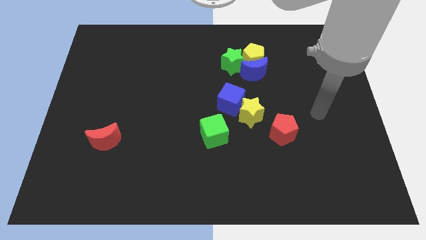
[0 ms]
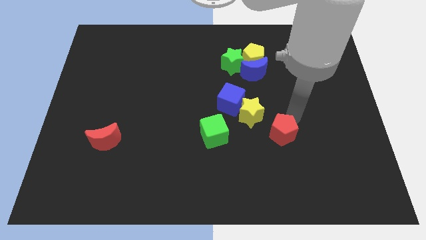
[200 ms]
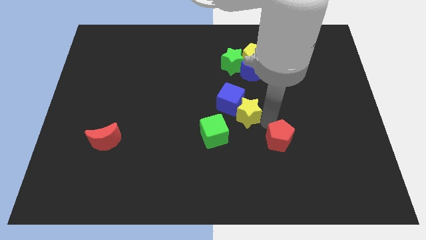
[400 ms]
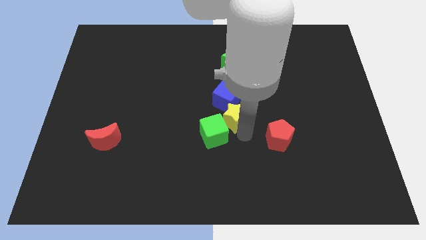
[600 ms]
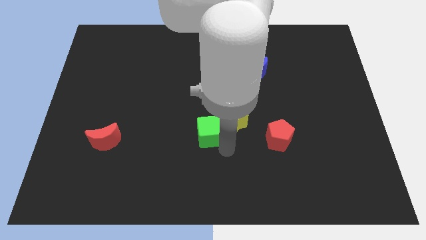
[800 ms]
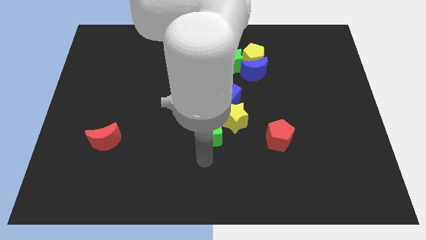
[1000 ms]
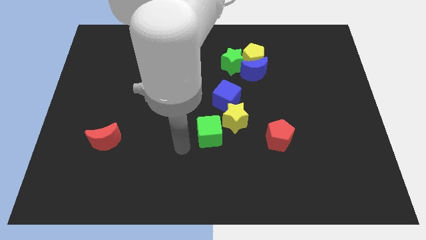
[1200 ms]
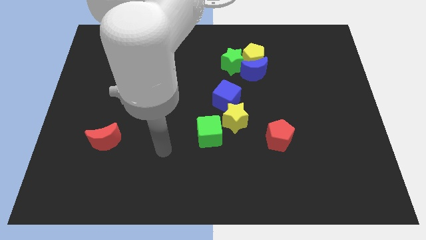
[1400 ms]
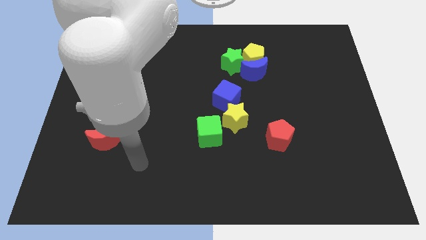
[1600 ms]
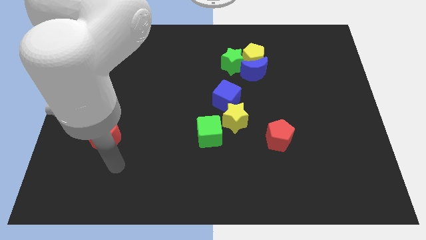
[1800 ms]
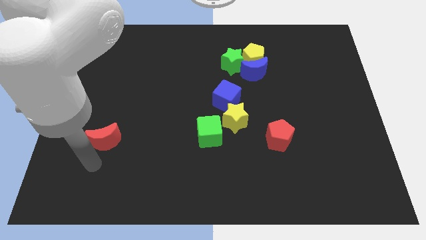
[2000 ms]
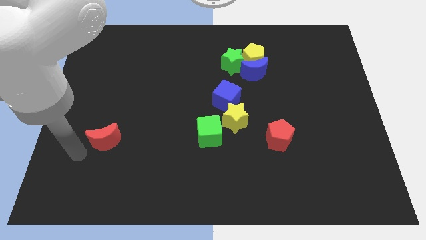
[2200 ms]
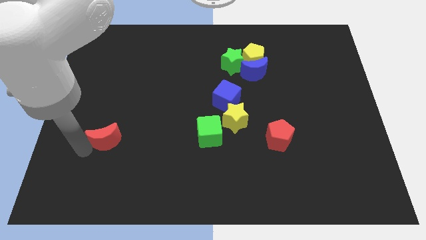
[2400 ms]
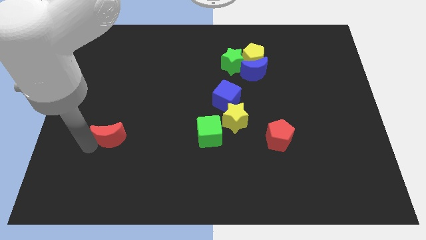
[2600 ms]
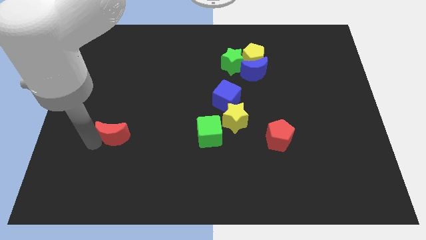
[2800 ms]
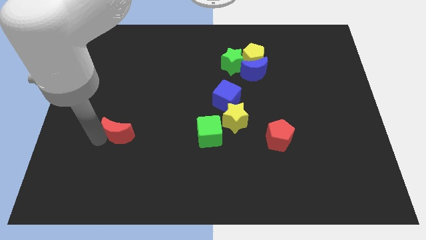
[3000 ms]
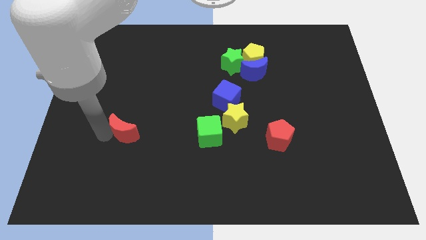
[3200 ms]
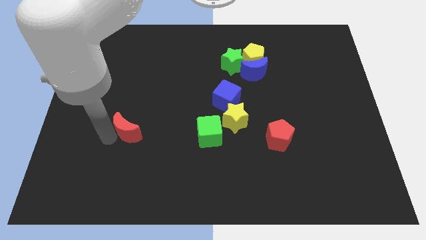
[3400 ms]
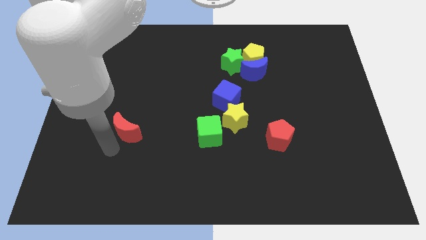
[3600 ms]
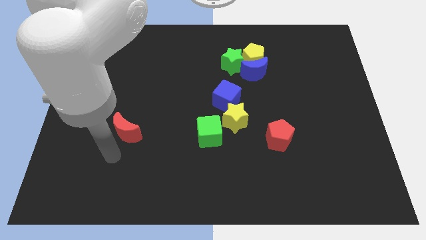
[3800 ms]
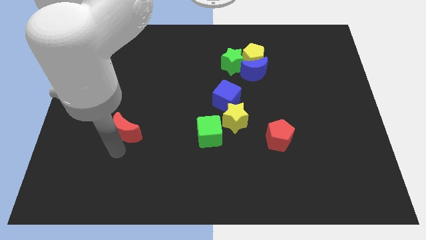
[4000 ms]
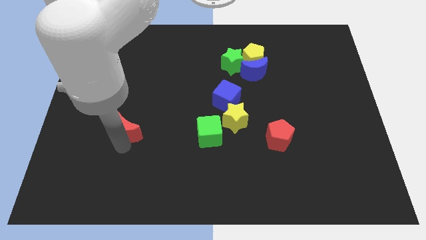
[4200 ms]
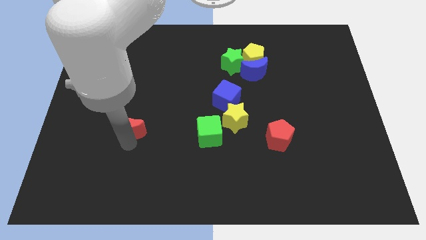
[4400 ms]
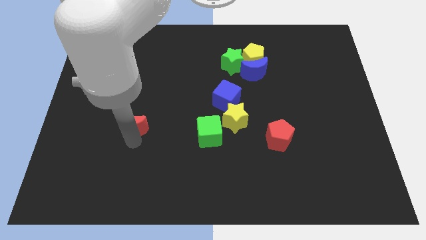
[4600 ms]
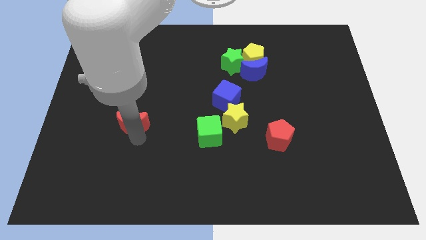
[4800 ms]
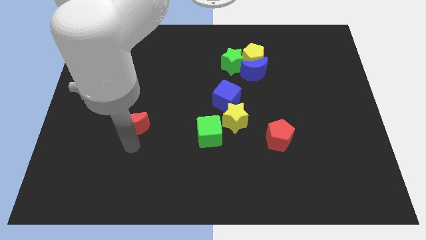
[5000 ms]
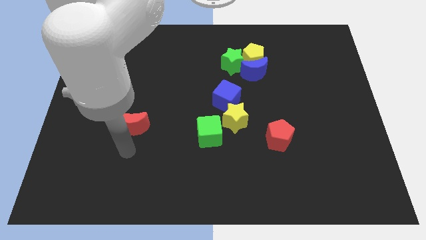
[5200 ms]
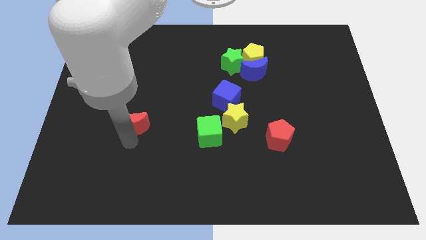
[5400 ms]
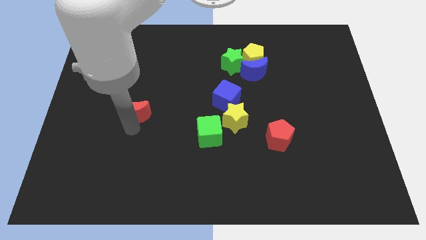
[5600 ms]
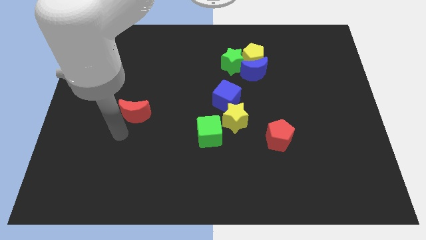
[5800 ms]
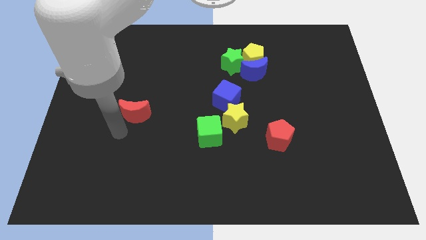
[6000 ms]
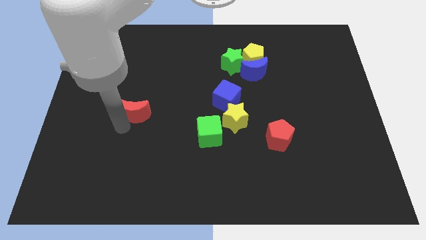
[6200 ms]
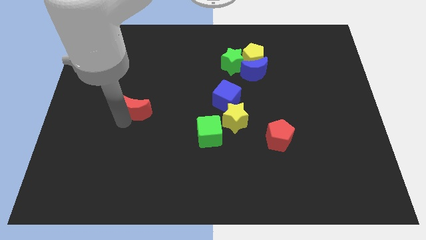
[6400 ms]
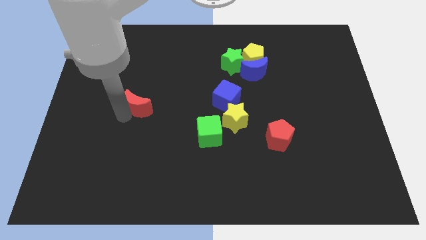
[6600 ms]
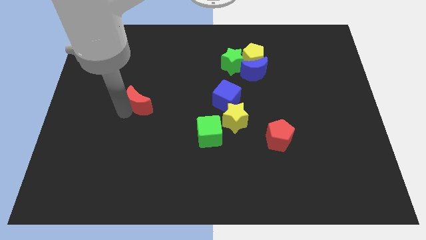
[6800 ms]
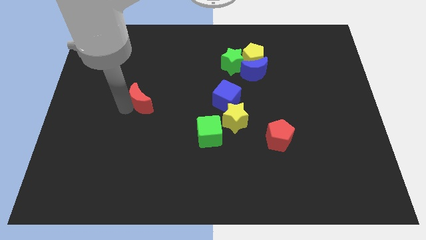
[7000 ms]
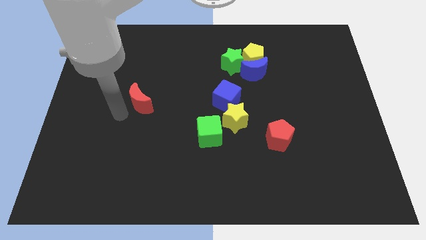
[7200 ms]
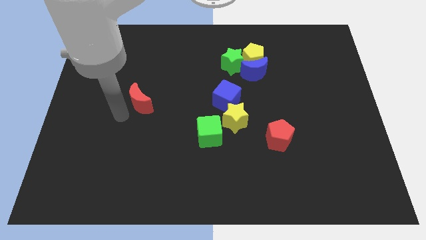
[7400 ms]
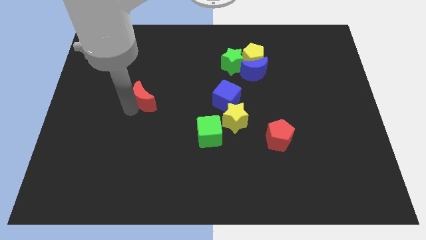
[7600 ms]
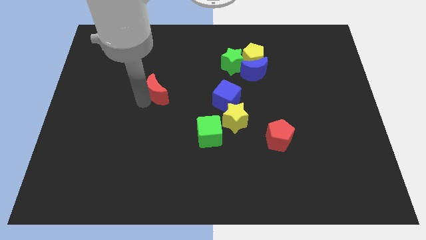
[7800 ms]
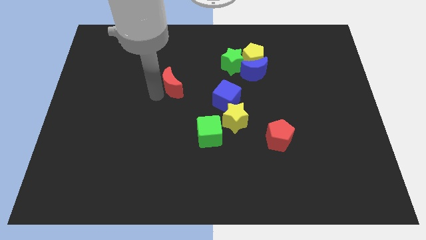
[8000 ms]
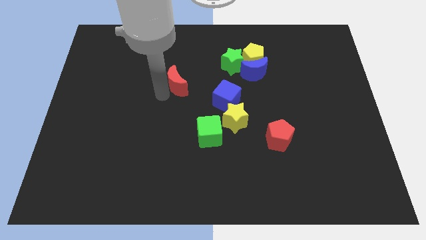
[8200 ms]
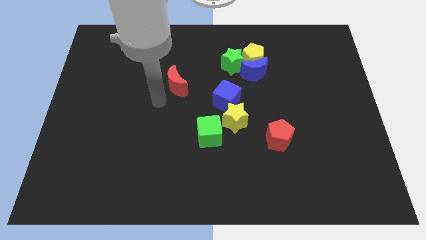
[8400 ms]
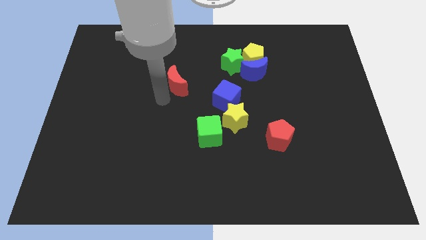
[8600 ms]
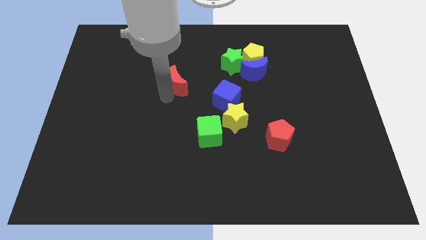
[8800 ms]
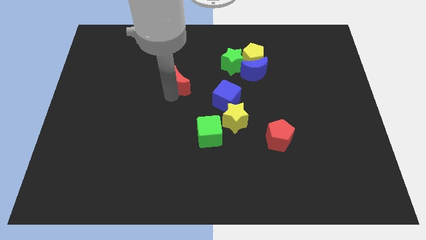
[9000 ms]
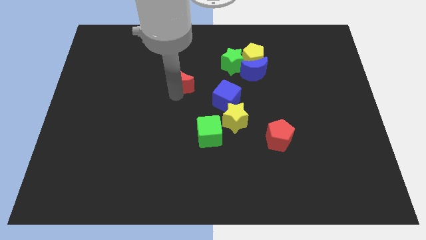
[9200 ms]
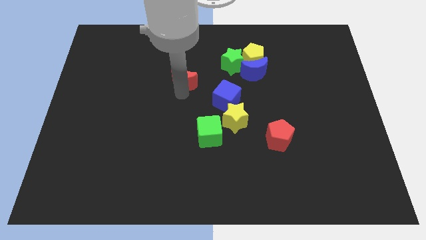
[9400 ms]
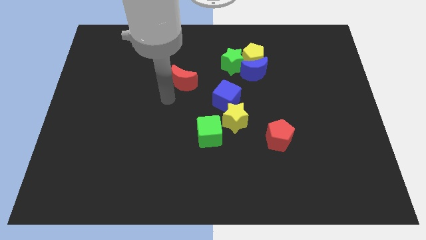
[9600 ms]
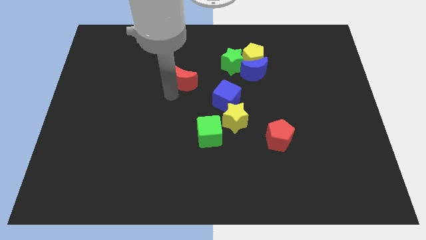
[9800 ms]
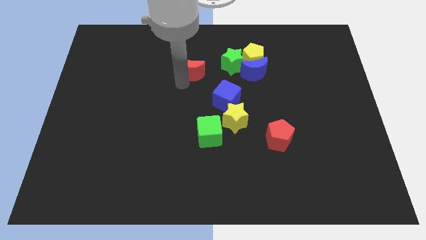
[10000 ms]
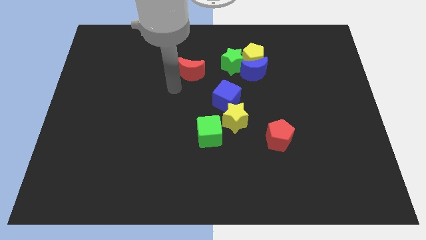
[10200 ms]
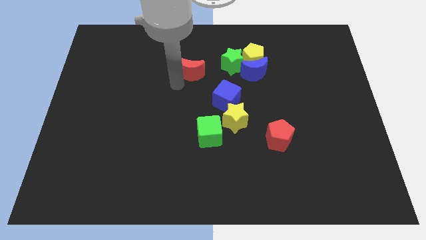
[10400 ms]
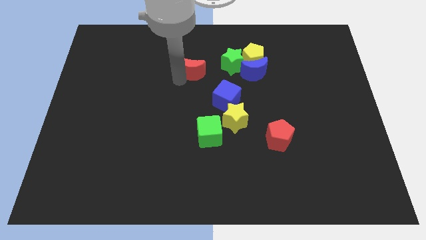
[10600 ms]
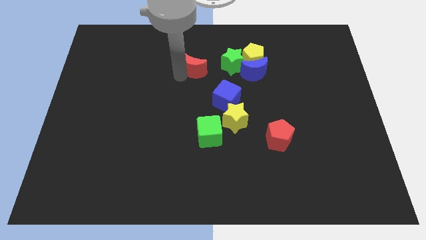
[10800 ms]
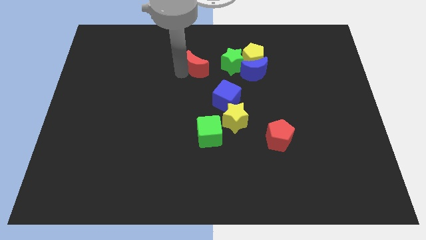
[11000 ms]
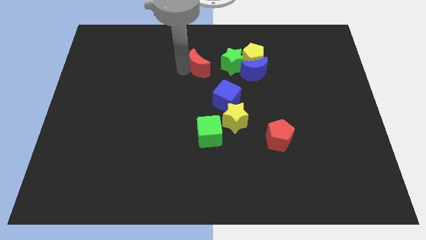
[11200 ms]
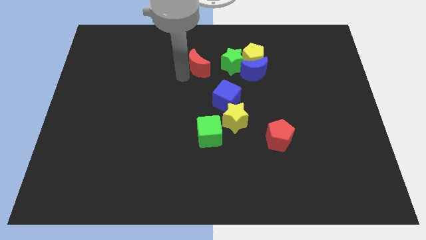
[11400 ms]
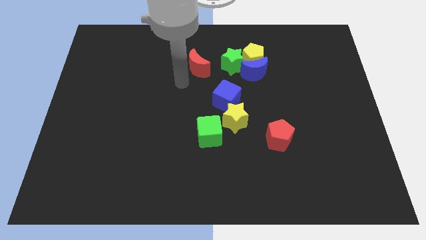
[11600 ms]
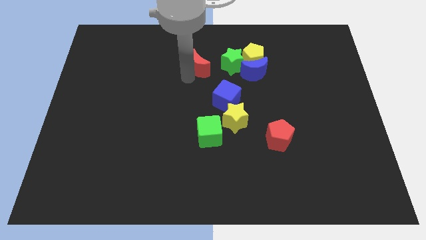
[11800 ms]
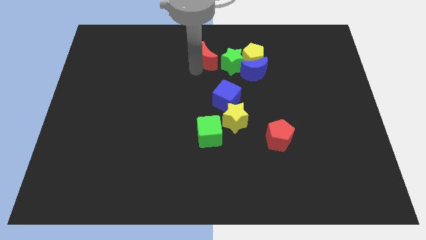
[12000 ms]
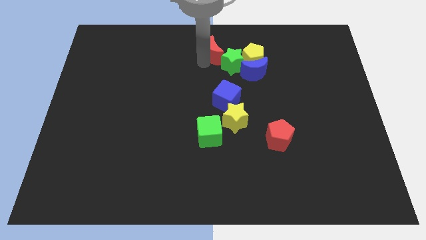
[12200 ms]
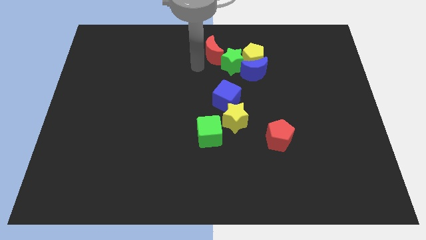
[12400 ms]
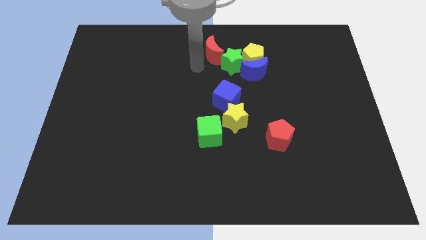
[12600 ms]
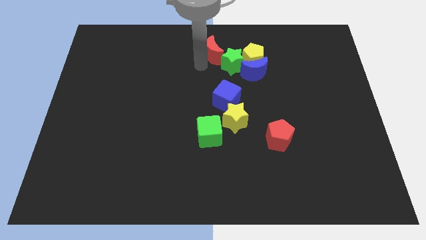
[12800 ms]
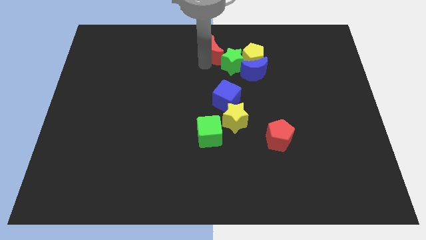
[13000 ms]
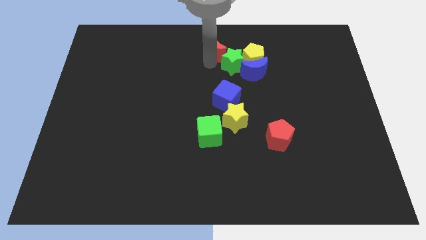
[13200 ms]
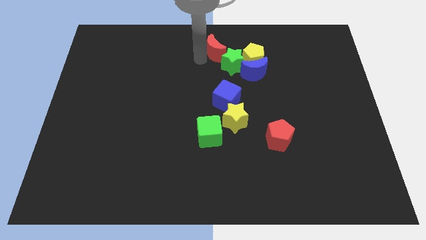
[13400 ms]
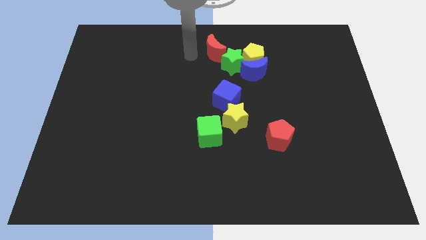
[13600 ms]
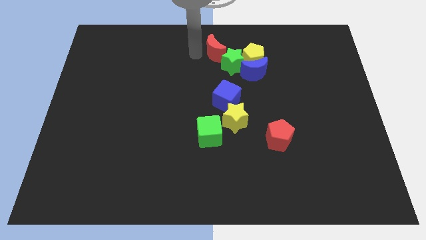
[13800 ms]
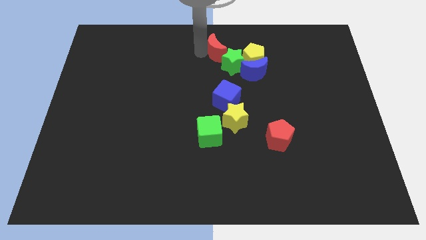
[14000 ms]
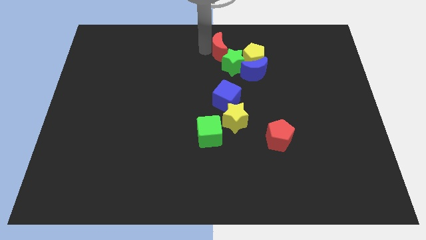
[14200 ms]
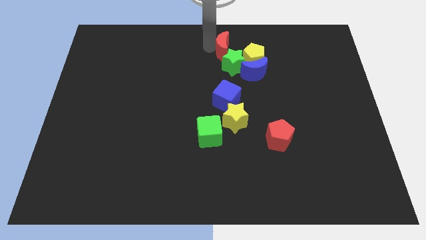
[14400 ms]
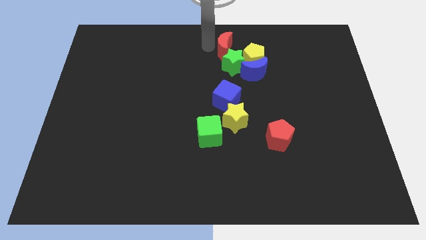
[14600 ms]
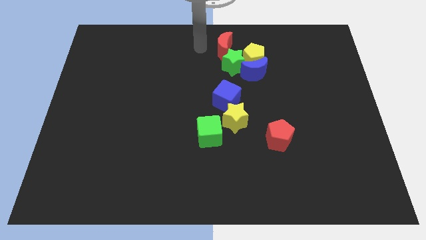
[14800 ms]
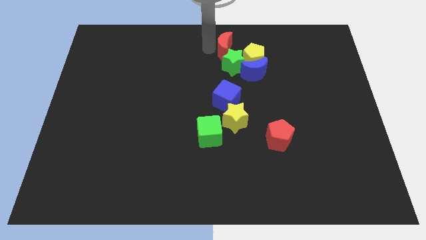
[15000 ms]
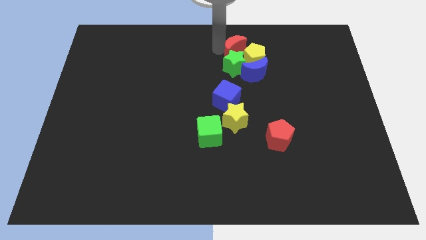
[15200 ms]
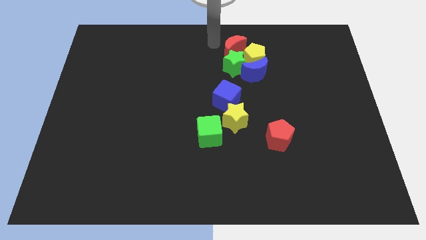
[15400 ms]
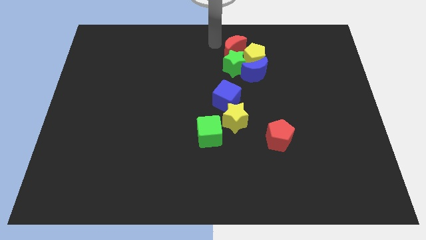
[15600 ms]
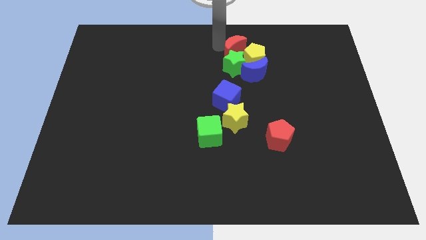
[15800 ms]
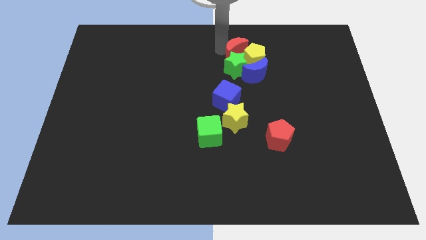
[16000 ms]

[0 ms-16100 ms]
move the red moon next to the yellow pentagon
